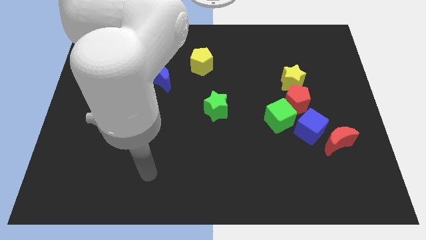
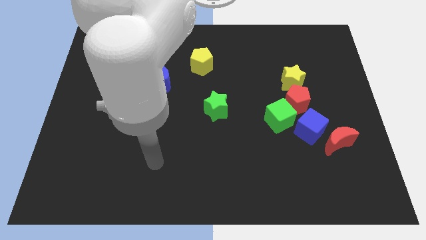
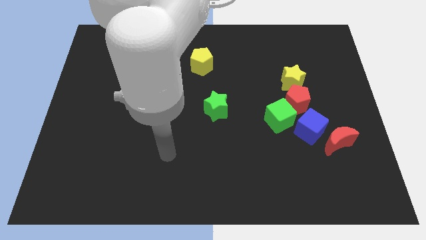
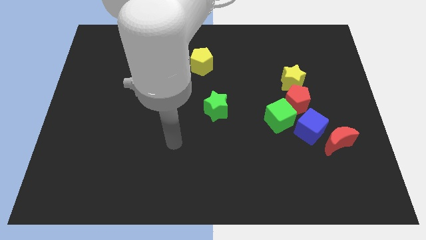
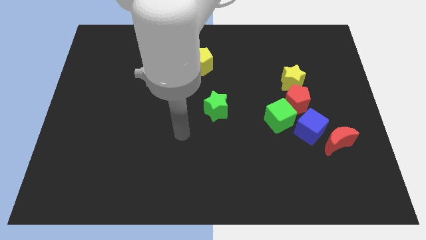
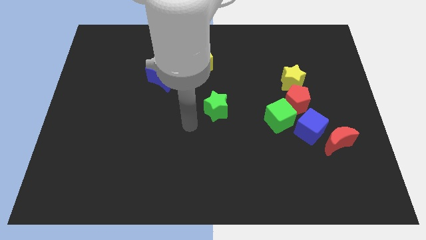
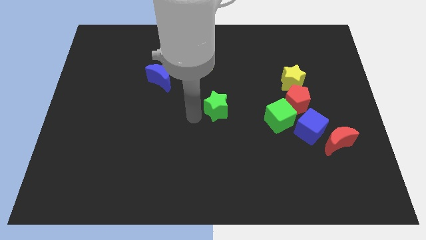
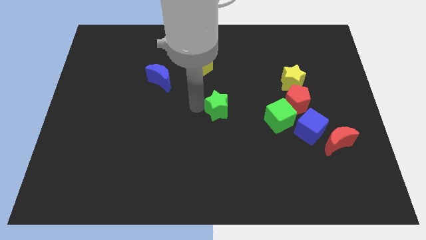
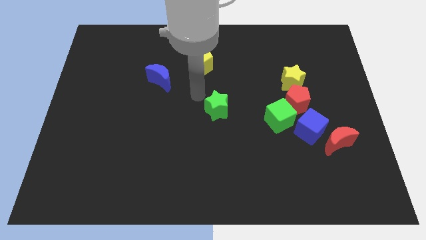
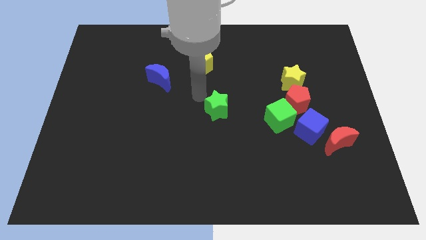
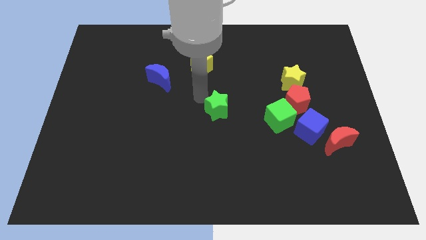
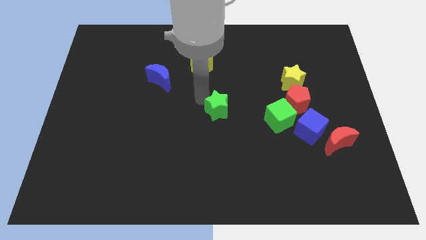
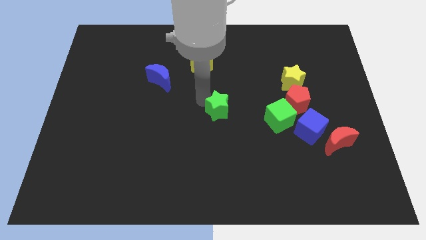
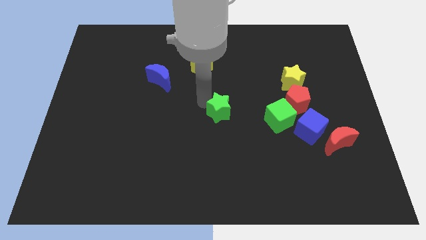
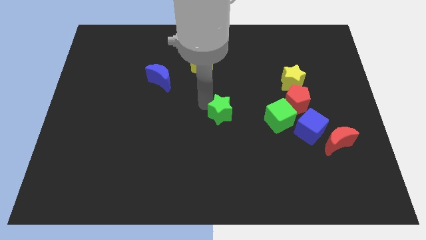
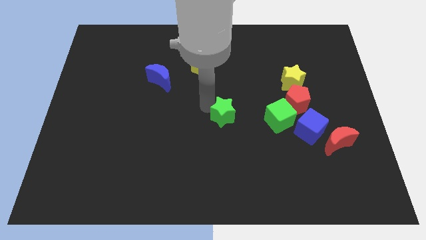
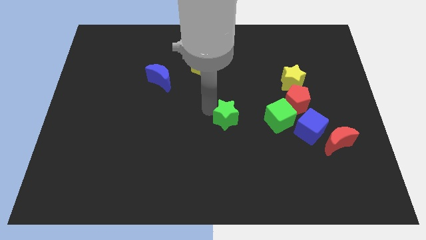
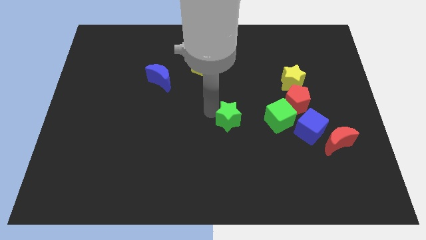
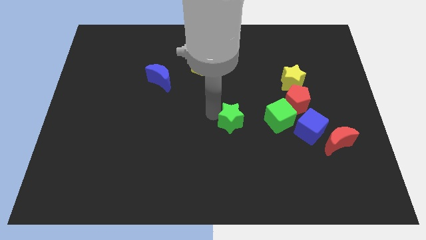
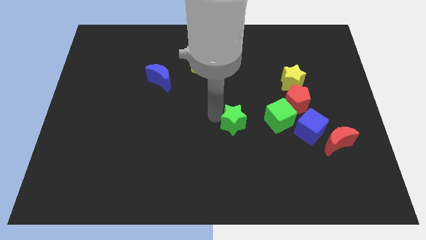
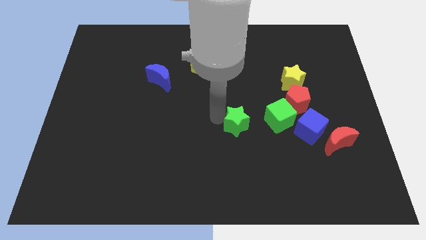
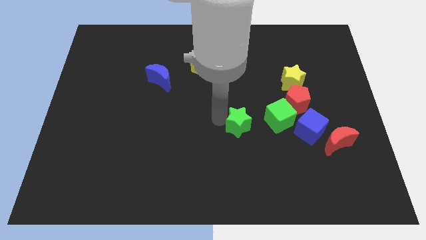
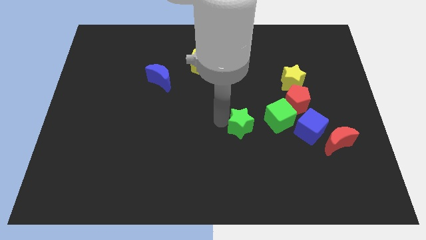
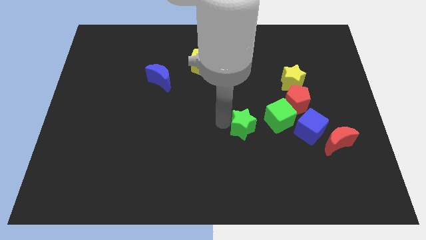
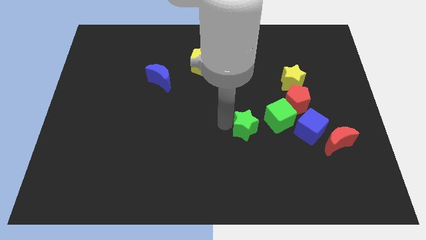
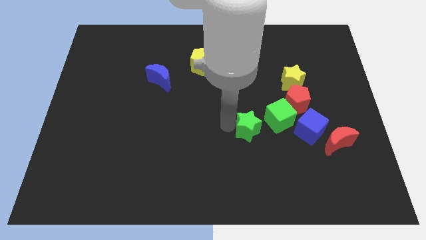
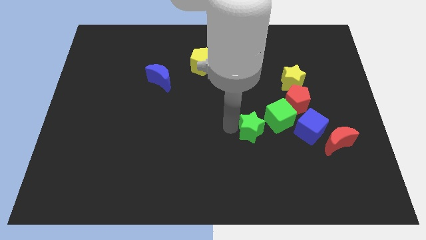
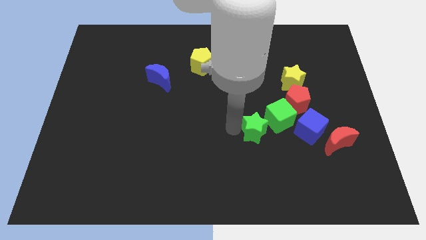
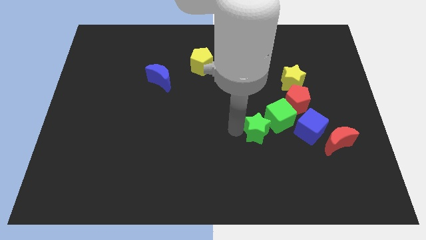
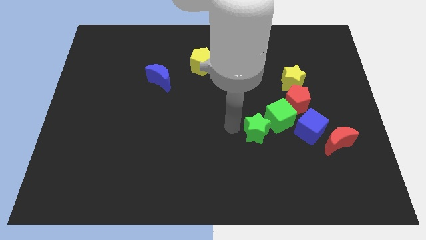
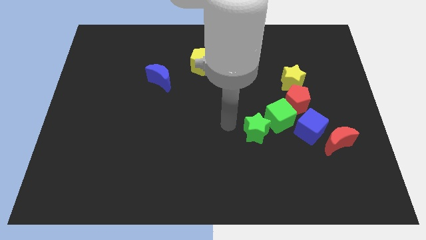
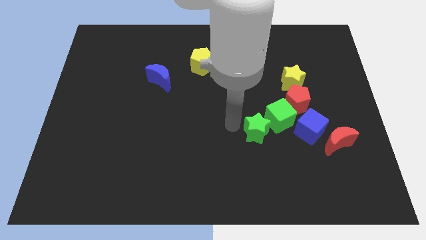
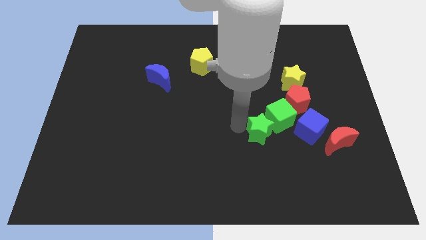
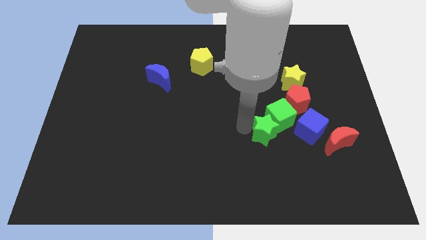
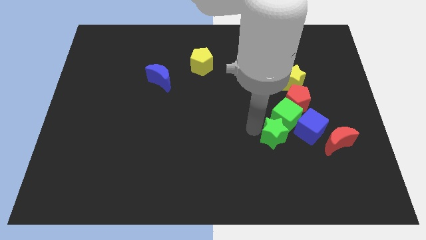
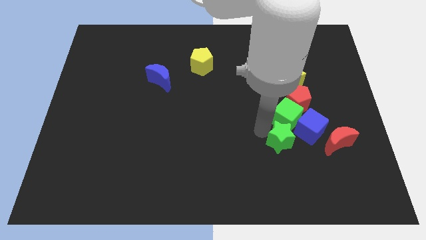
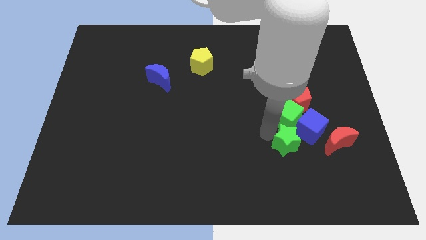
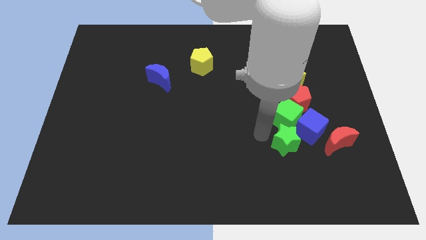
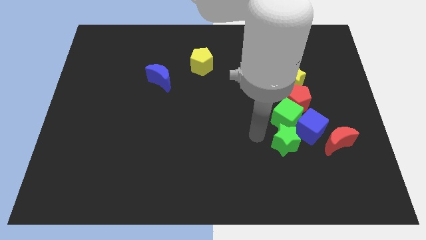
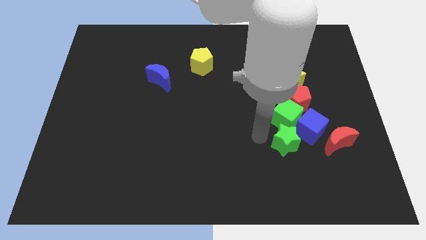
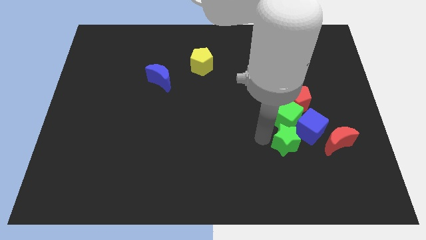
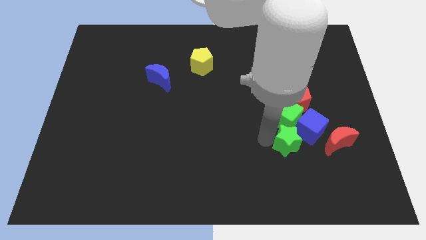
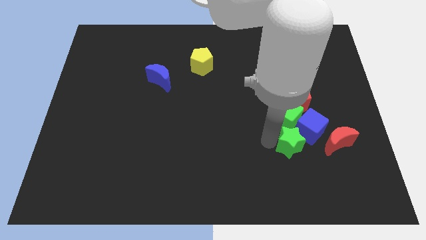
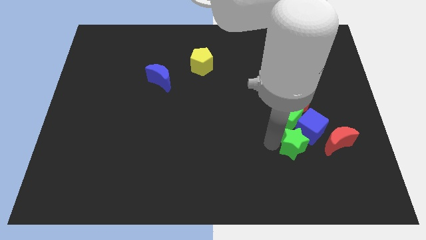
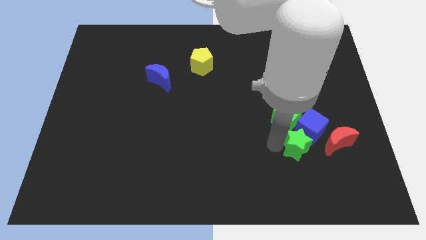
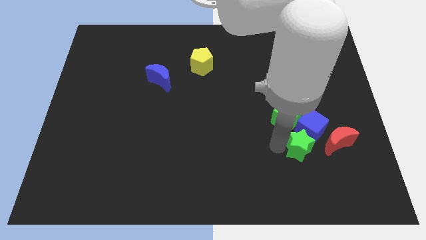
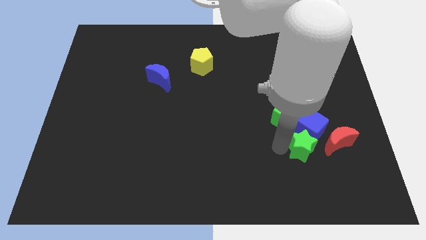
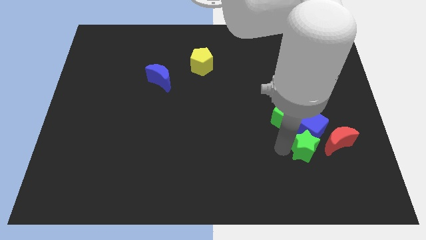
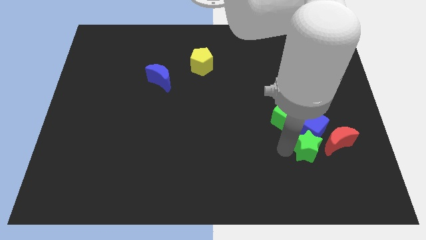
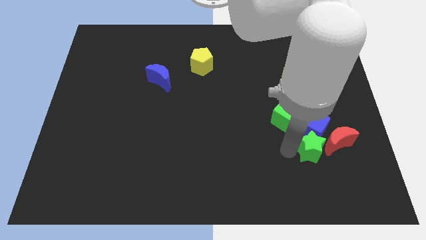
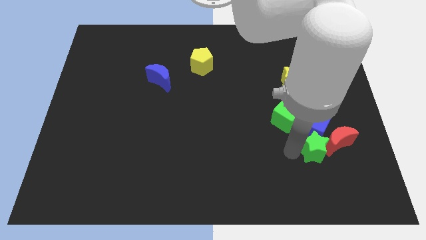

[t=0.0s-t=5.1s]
put the green star close to the red moon

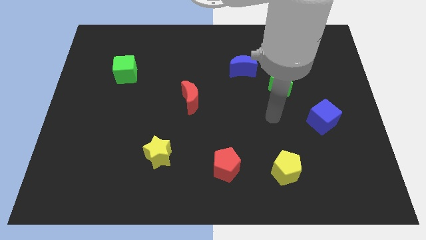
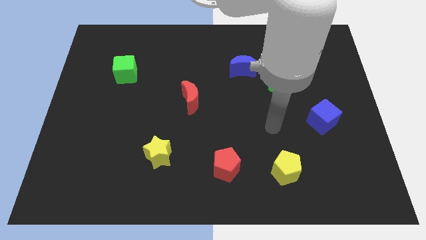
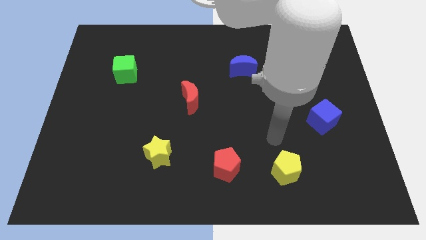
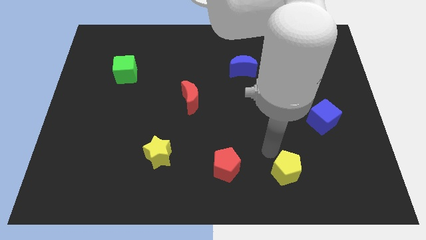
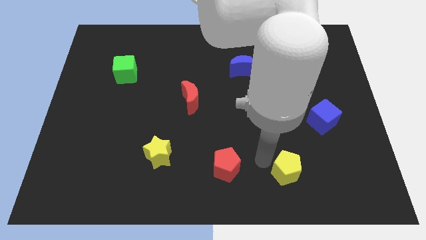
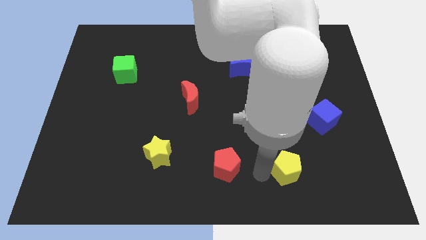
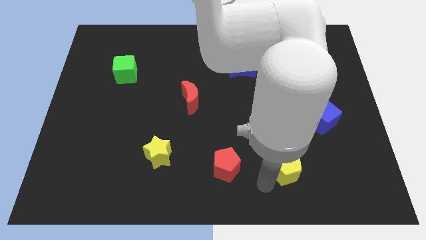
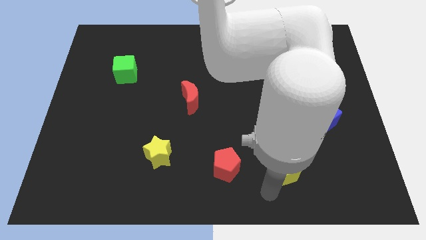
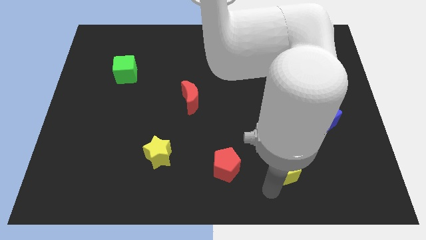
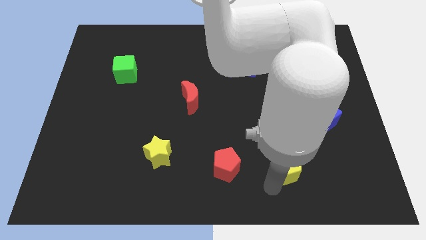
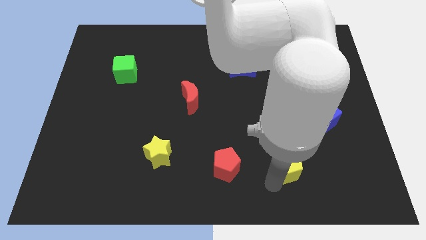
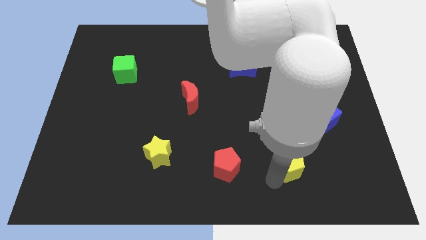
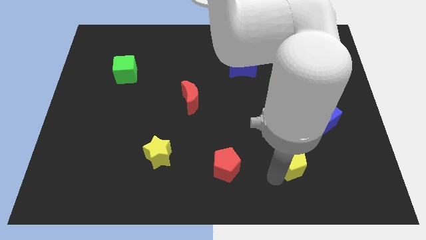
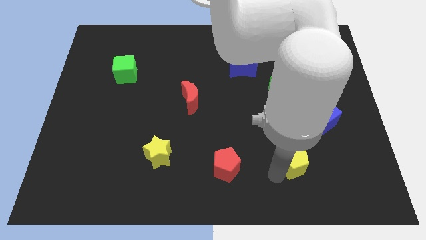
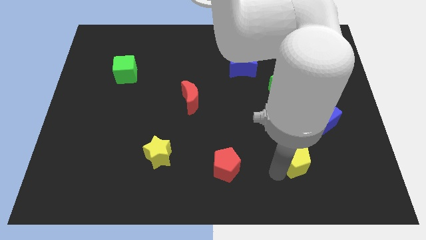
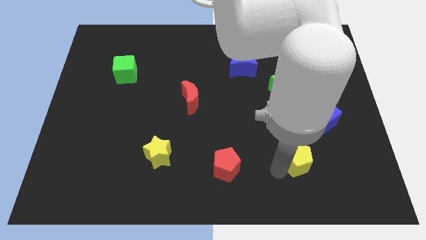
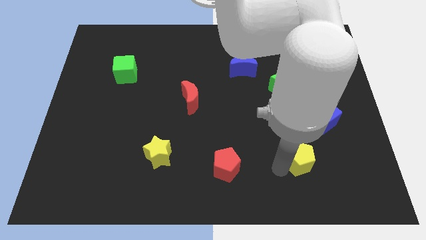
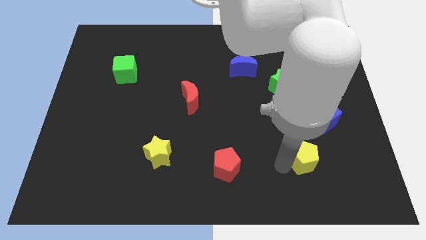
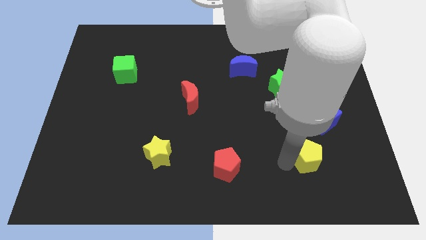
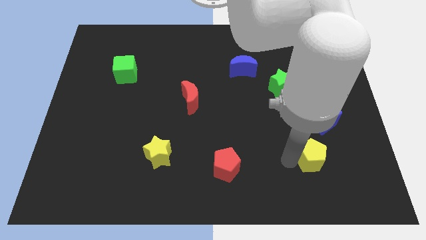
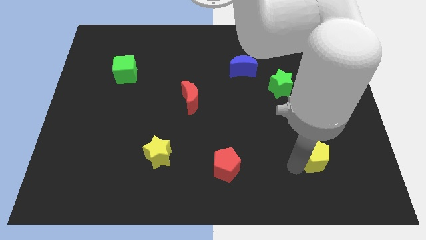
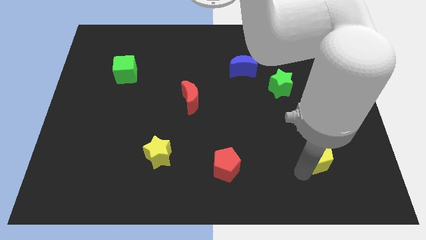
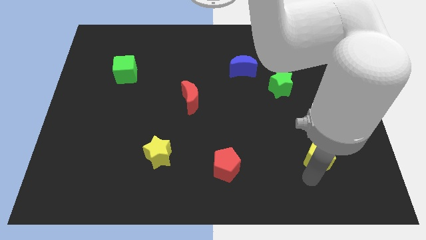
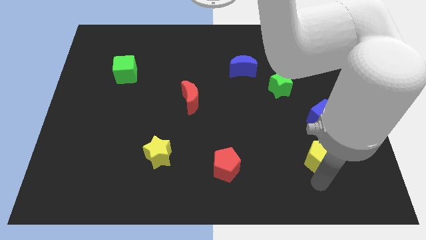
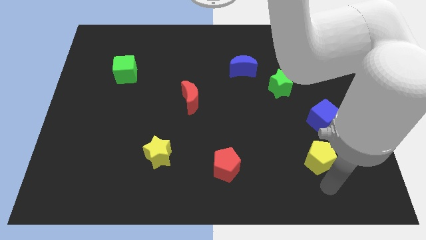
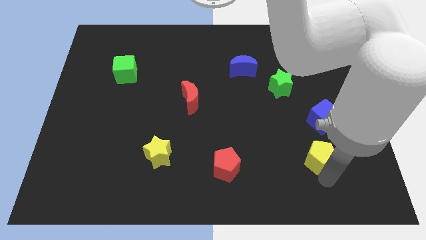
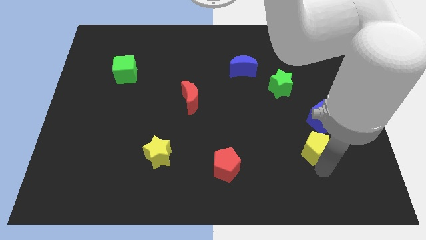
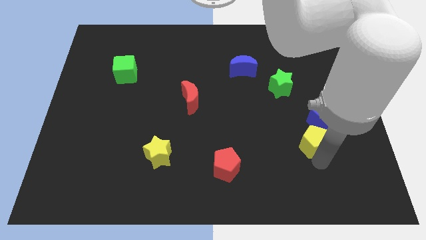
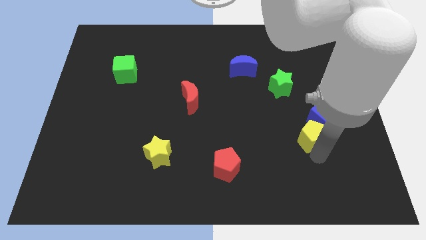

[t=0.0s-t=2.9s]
move the yellow pentagon to the blue cube
